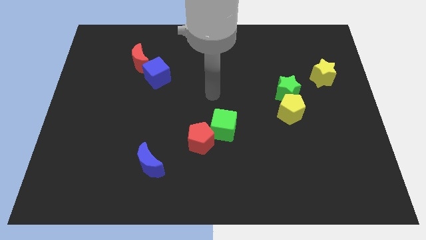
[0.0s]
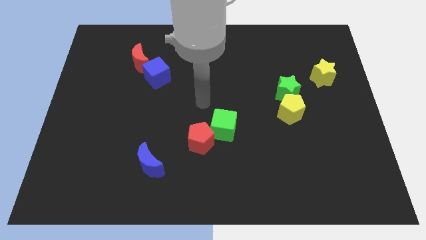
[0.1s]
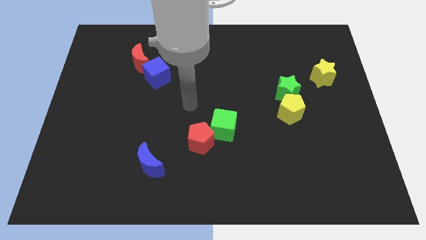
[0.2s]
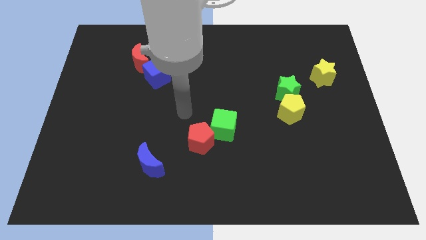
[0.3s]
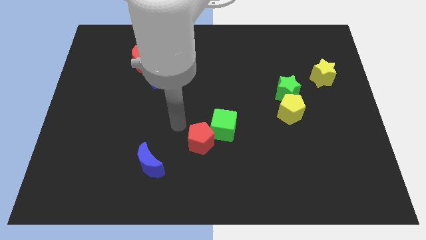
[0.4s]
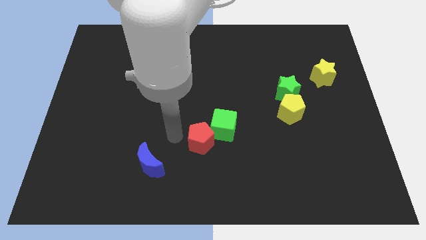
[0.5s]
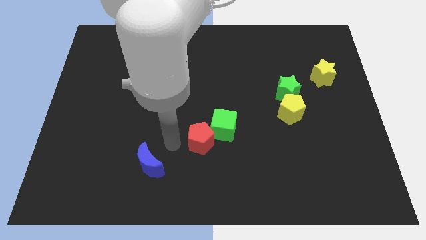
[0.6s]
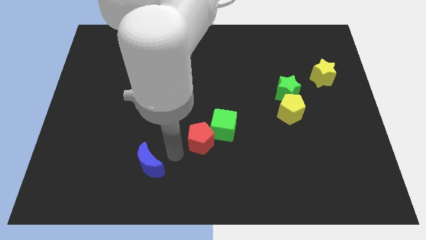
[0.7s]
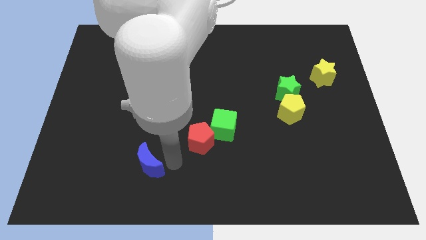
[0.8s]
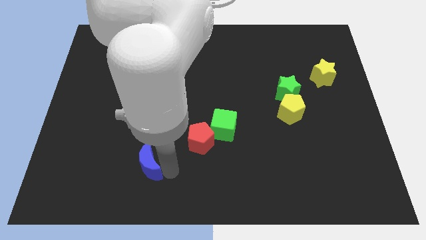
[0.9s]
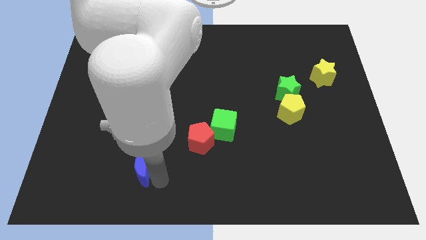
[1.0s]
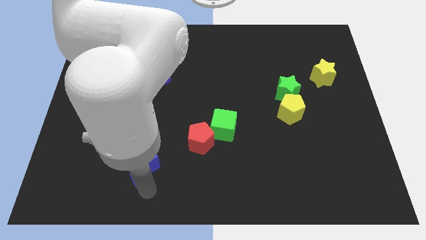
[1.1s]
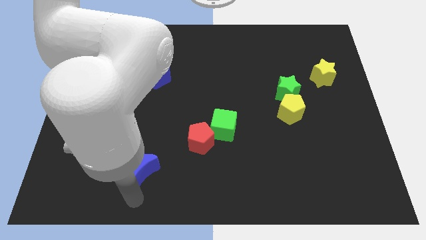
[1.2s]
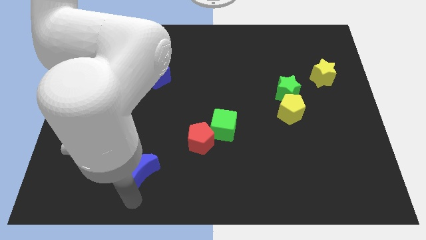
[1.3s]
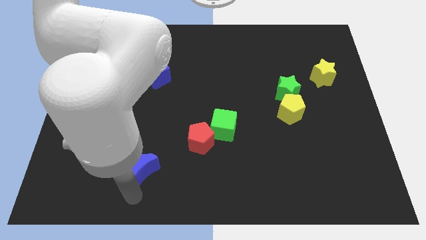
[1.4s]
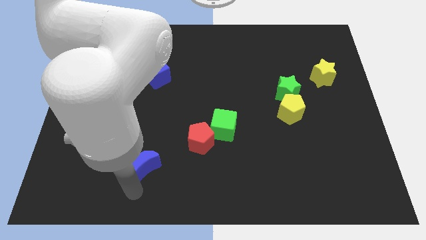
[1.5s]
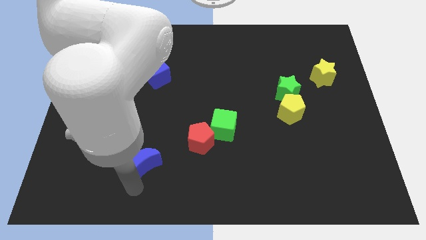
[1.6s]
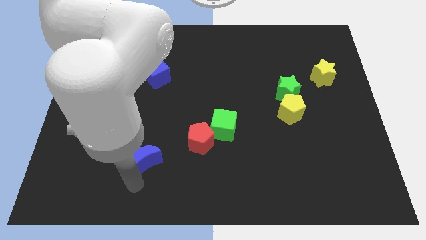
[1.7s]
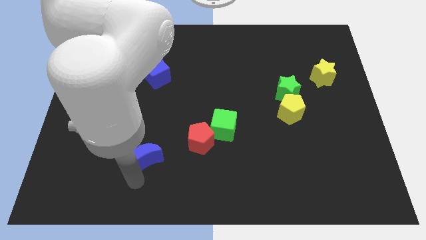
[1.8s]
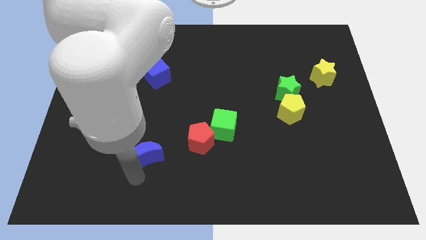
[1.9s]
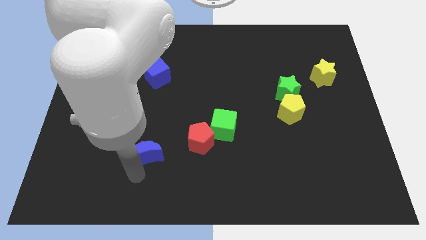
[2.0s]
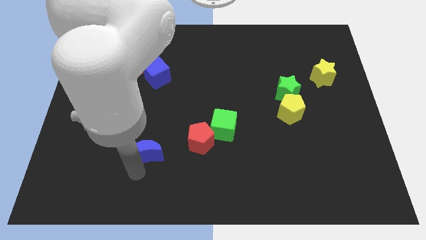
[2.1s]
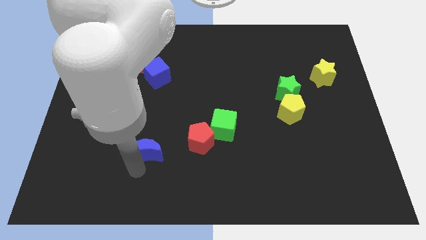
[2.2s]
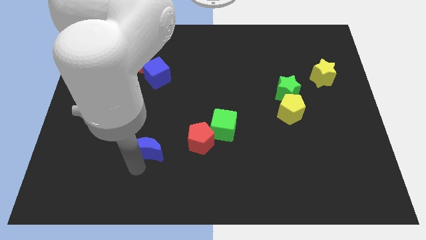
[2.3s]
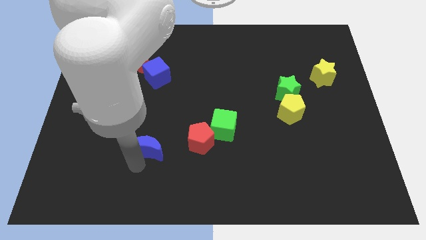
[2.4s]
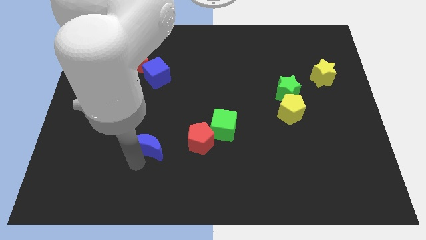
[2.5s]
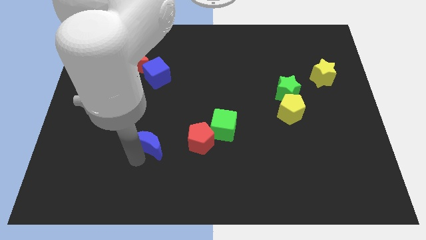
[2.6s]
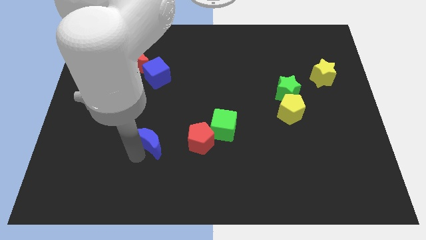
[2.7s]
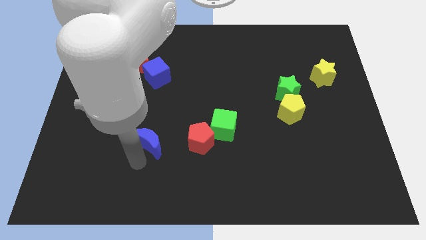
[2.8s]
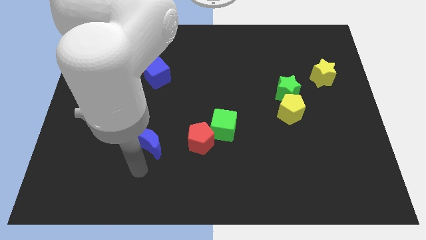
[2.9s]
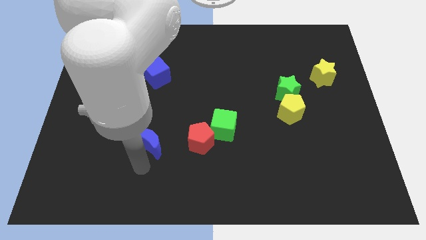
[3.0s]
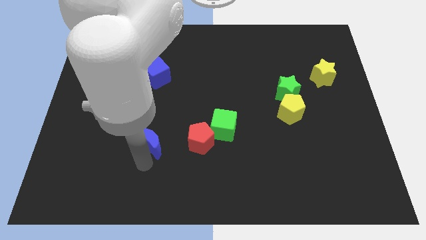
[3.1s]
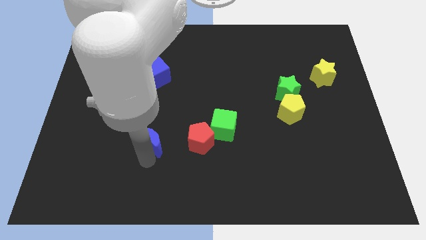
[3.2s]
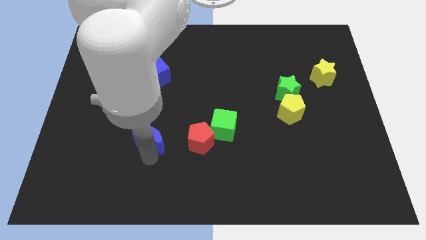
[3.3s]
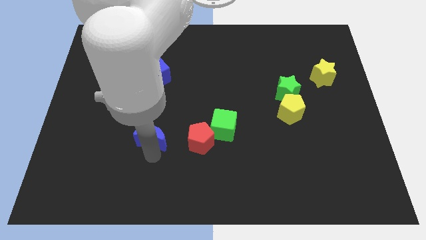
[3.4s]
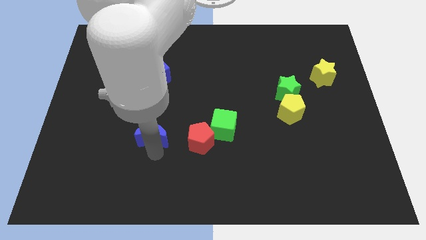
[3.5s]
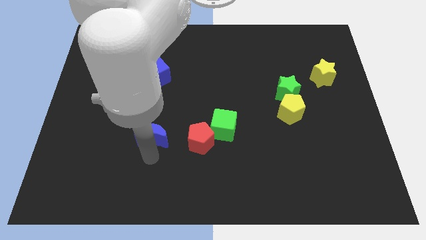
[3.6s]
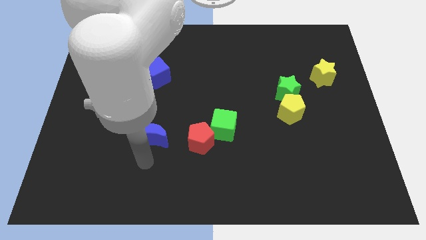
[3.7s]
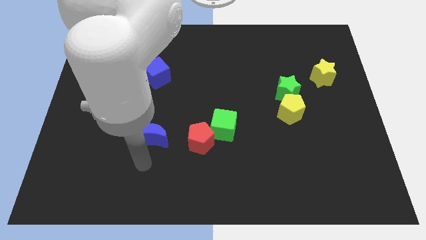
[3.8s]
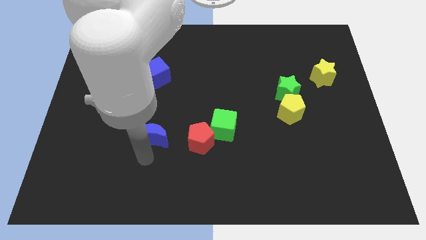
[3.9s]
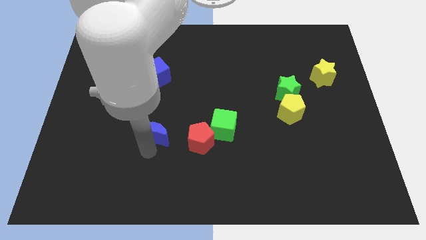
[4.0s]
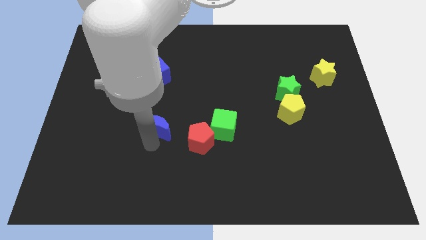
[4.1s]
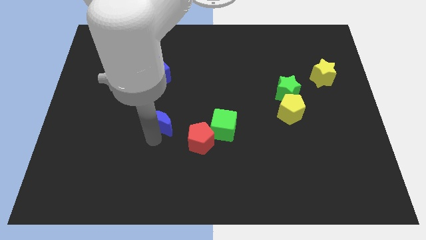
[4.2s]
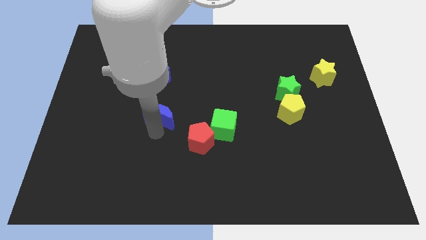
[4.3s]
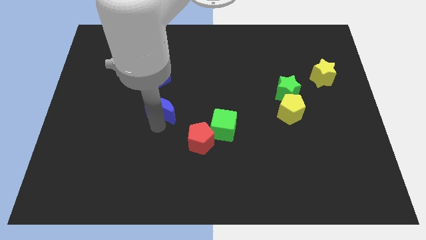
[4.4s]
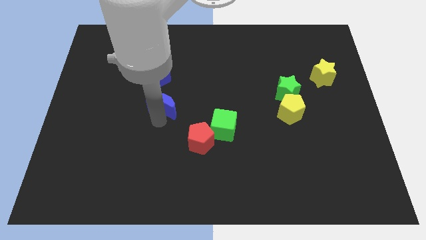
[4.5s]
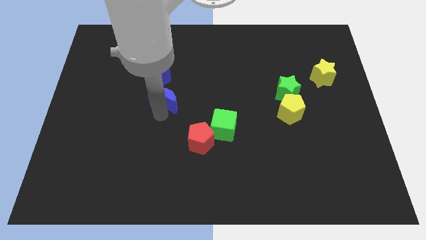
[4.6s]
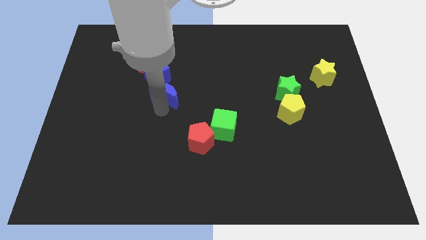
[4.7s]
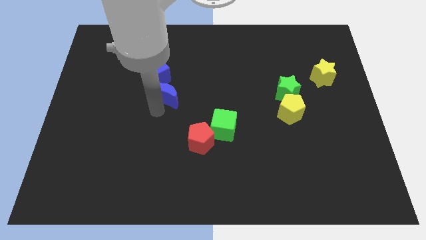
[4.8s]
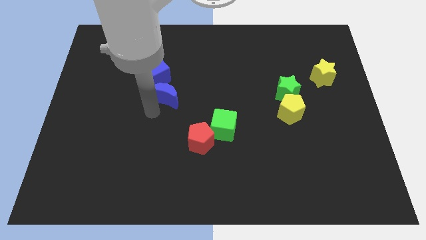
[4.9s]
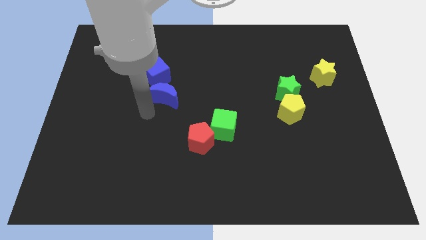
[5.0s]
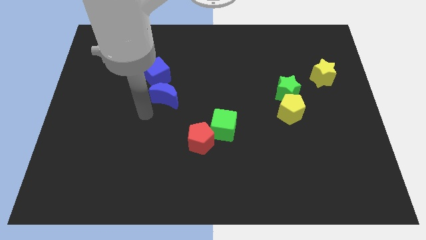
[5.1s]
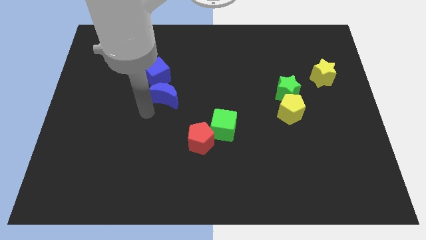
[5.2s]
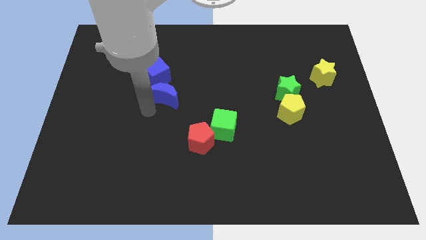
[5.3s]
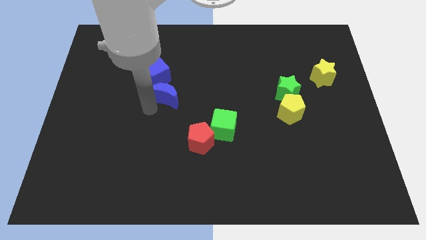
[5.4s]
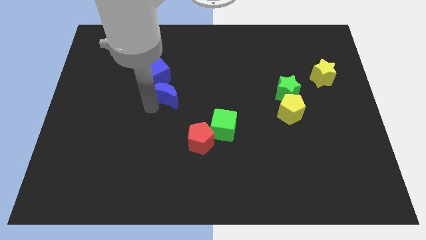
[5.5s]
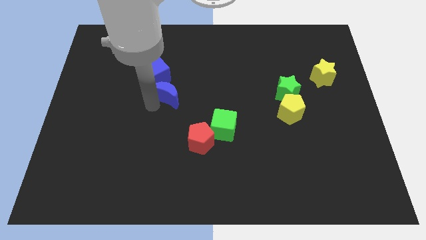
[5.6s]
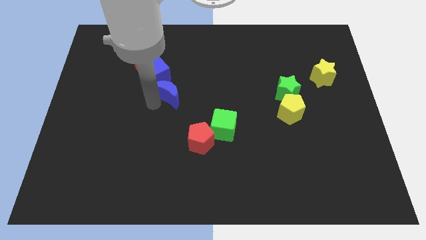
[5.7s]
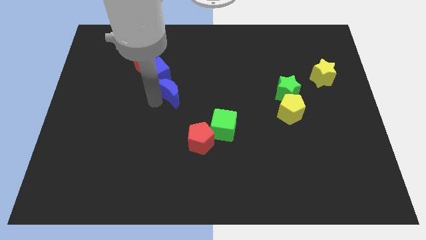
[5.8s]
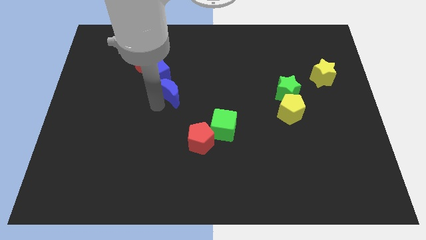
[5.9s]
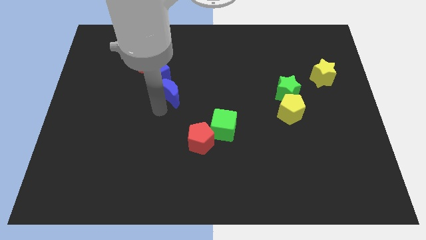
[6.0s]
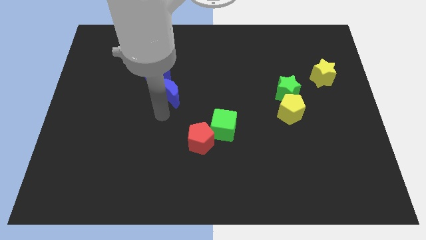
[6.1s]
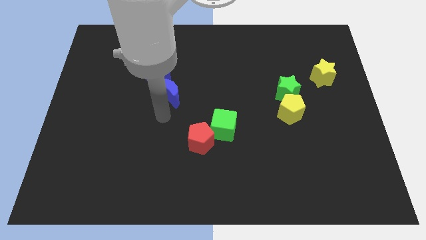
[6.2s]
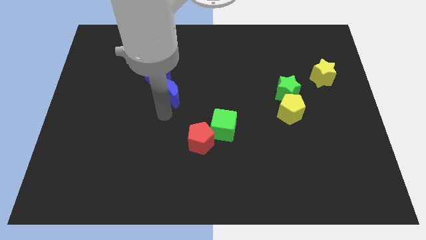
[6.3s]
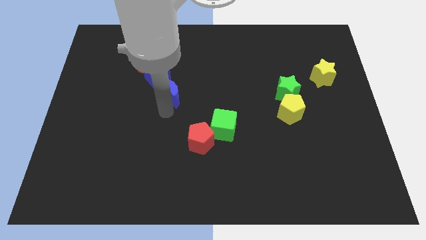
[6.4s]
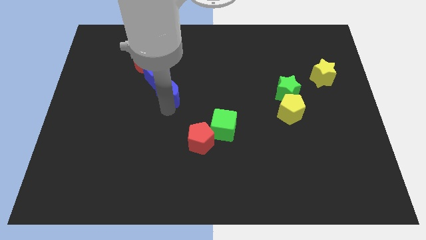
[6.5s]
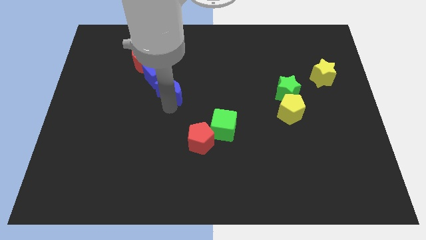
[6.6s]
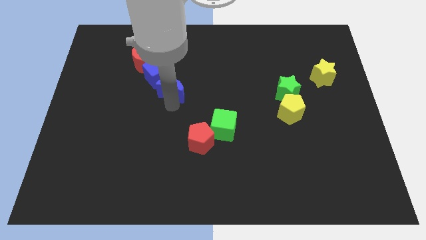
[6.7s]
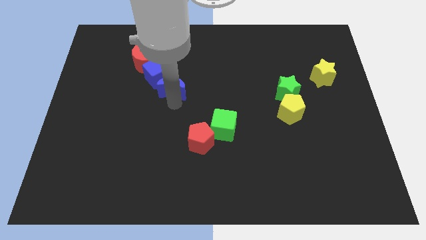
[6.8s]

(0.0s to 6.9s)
move the blue moon up

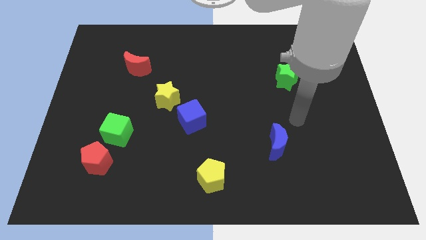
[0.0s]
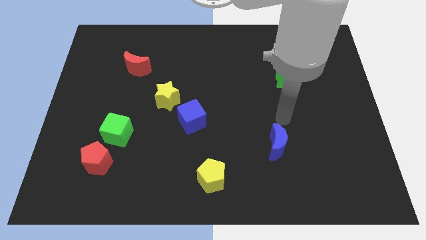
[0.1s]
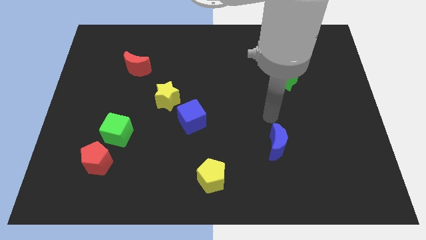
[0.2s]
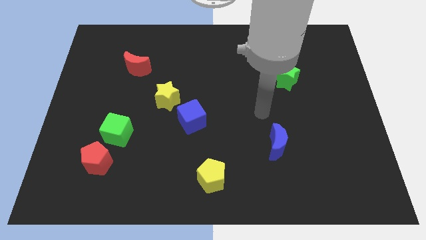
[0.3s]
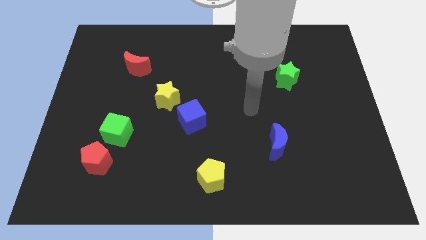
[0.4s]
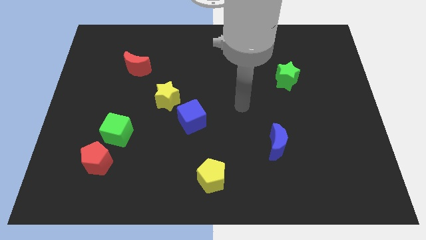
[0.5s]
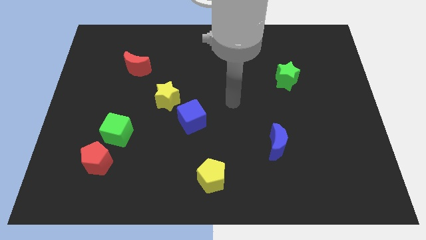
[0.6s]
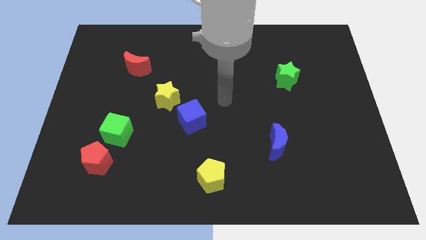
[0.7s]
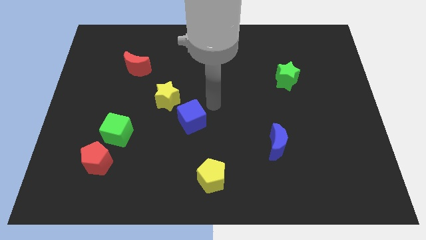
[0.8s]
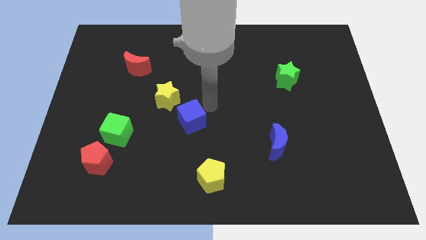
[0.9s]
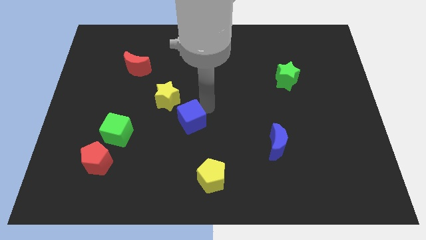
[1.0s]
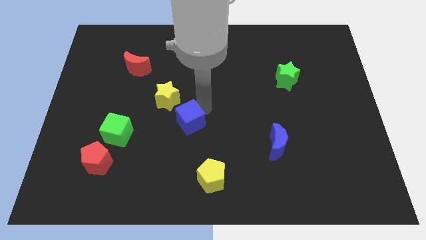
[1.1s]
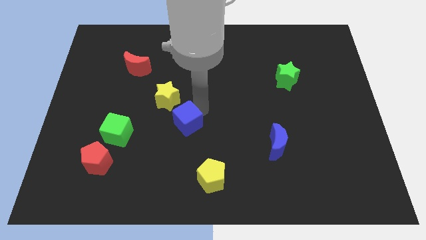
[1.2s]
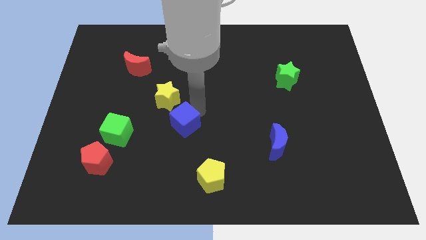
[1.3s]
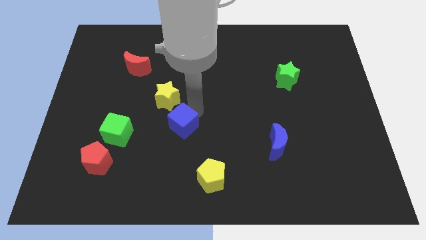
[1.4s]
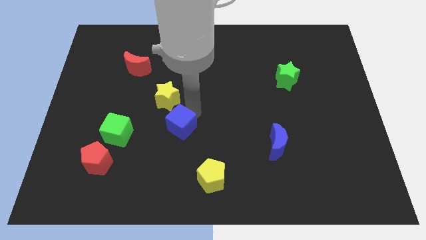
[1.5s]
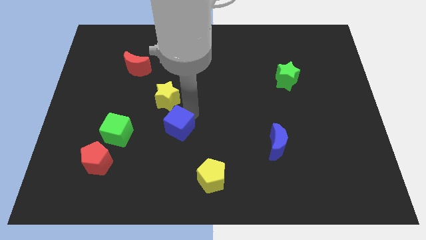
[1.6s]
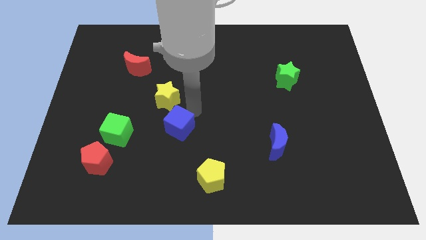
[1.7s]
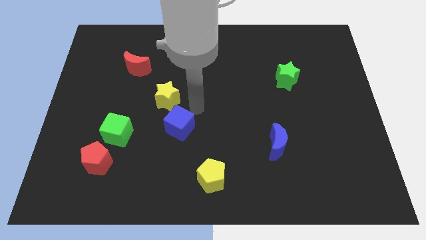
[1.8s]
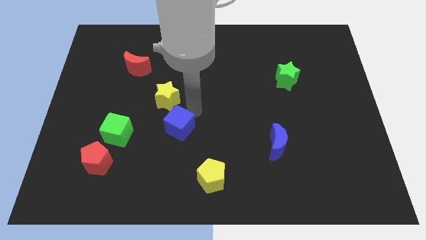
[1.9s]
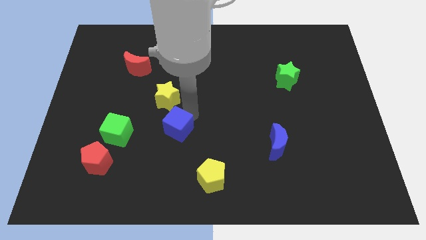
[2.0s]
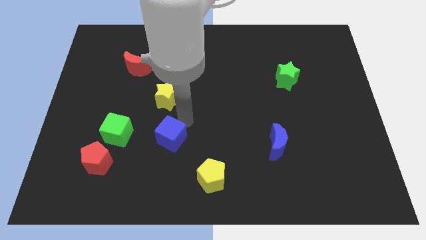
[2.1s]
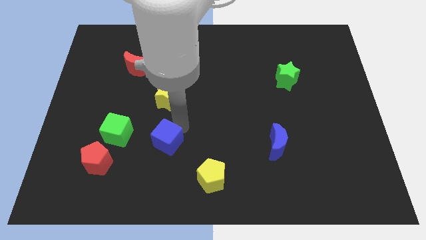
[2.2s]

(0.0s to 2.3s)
move the blue cube somewhat down and to the left diagonally
